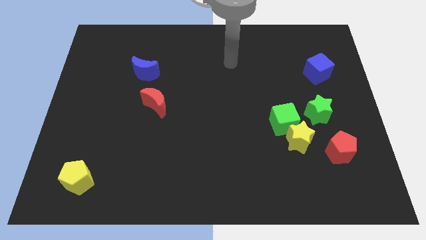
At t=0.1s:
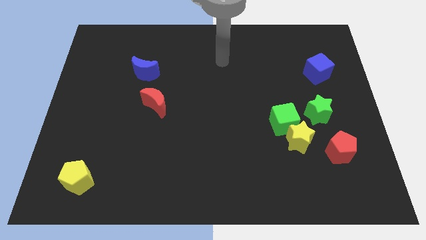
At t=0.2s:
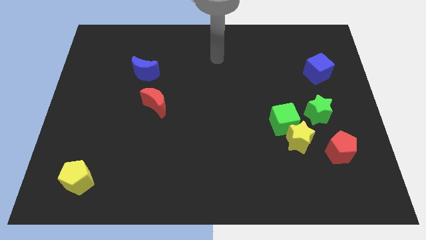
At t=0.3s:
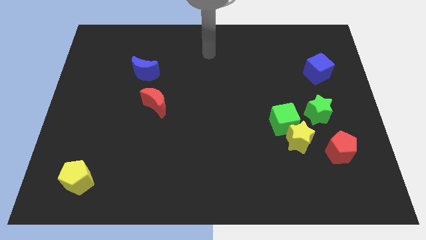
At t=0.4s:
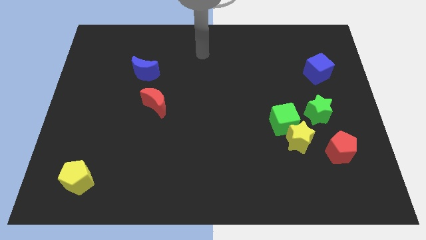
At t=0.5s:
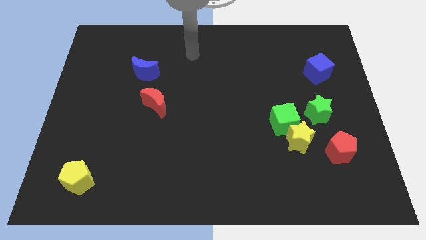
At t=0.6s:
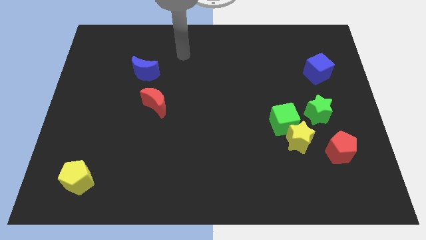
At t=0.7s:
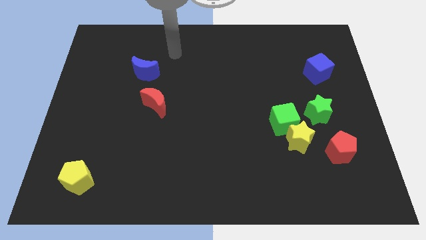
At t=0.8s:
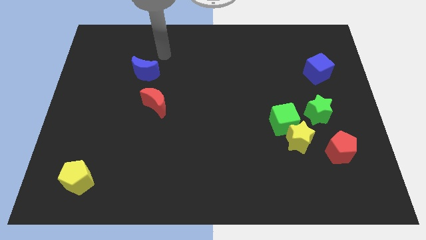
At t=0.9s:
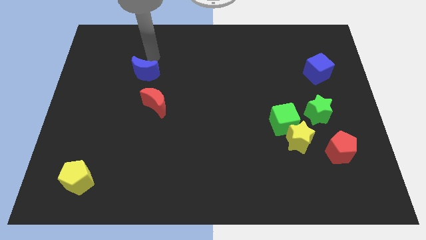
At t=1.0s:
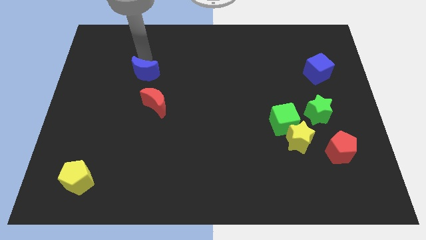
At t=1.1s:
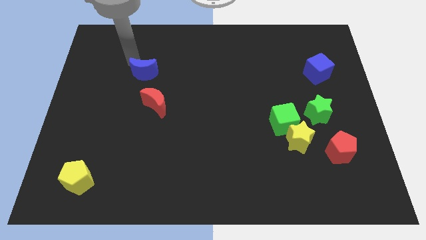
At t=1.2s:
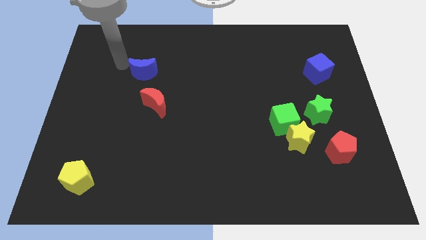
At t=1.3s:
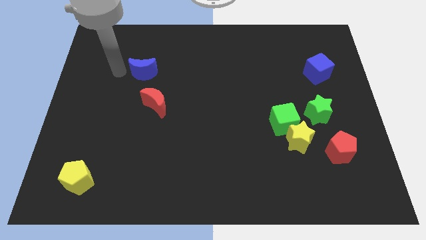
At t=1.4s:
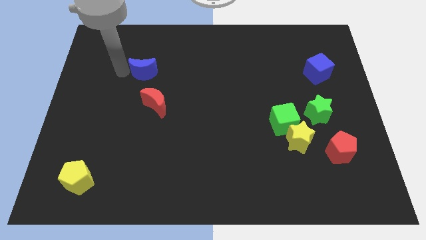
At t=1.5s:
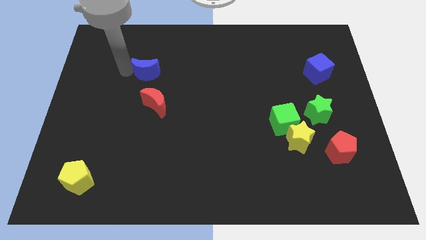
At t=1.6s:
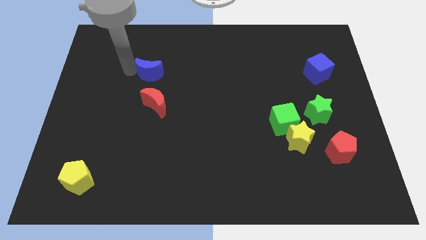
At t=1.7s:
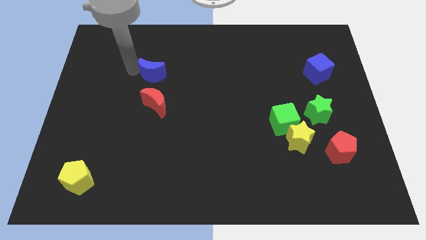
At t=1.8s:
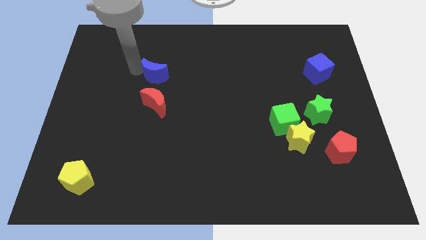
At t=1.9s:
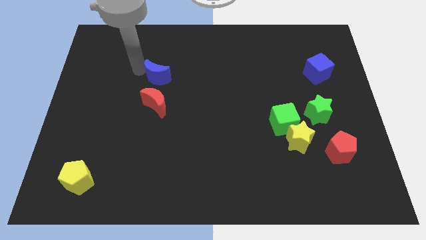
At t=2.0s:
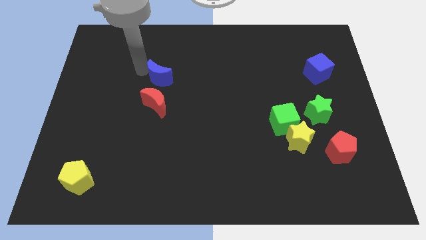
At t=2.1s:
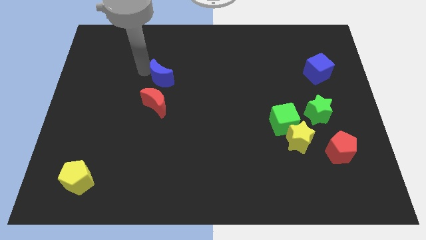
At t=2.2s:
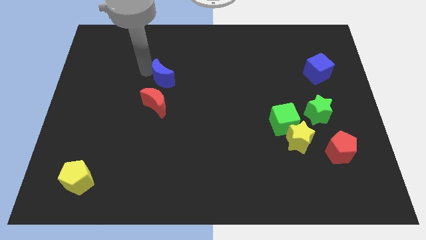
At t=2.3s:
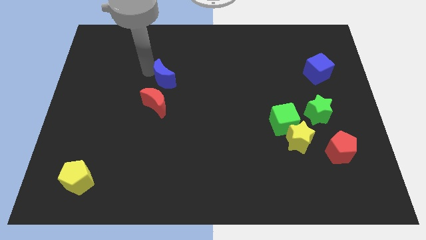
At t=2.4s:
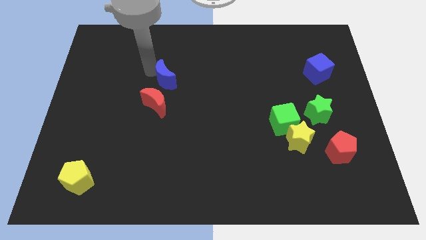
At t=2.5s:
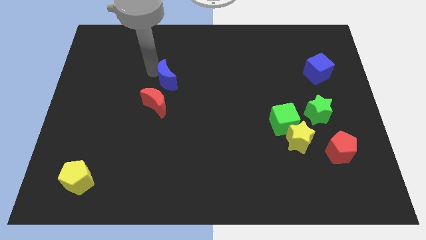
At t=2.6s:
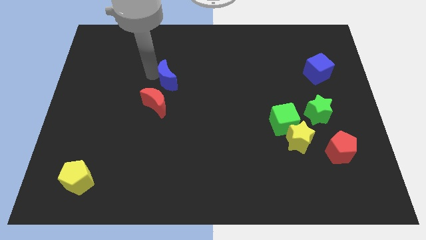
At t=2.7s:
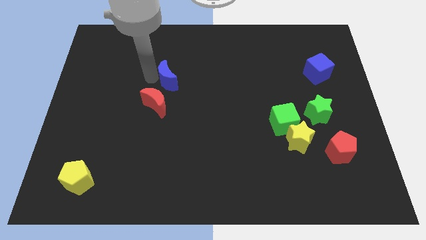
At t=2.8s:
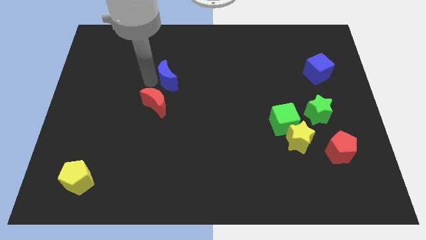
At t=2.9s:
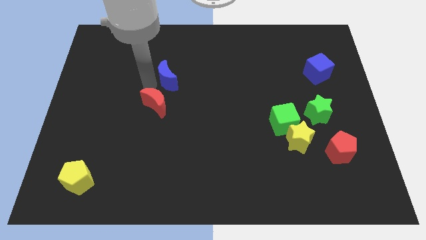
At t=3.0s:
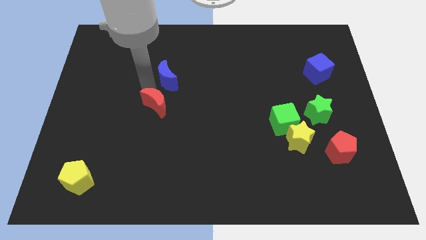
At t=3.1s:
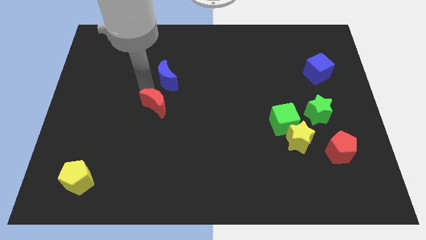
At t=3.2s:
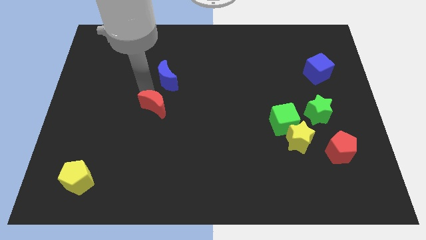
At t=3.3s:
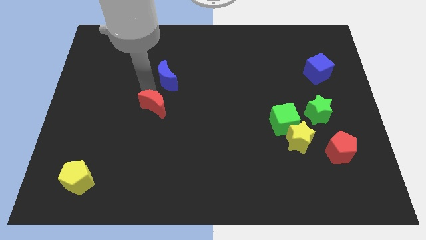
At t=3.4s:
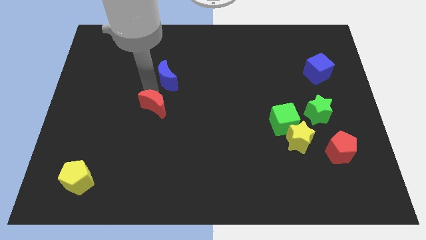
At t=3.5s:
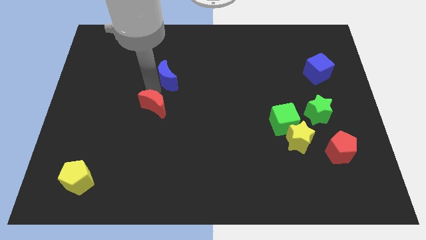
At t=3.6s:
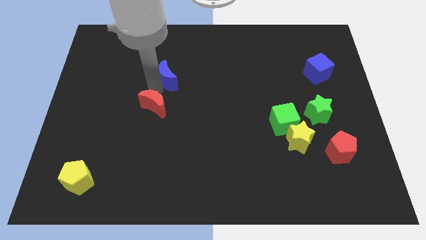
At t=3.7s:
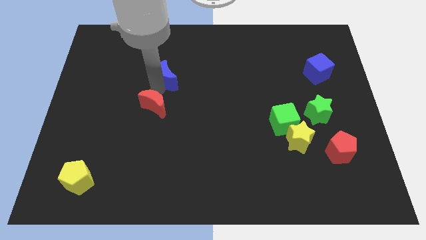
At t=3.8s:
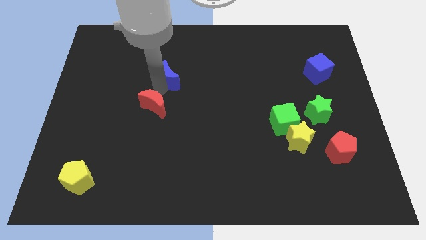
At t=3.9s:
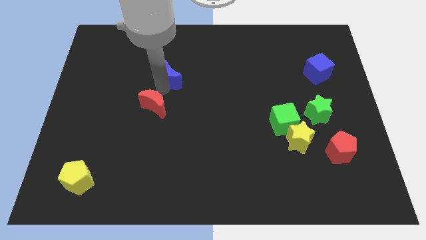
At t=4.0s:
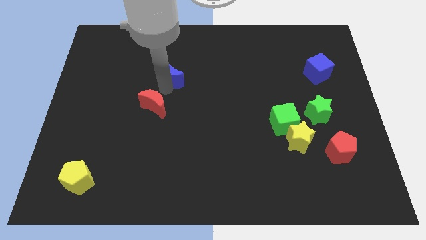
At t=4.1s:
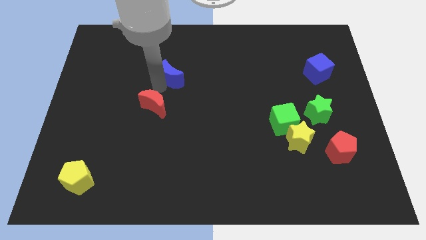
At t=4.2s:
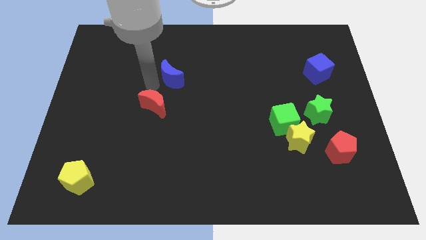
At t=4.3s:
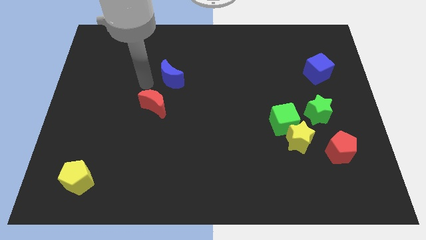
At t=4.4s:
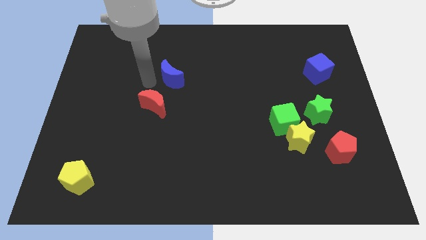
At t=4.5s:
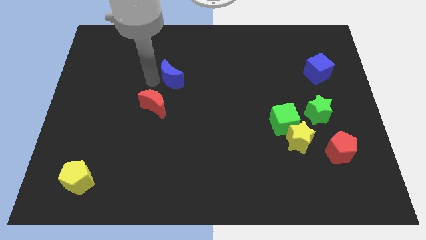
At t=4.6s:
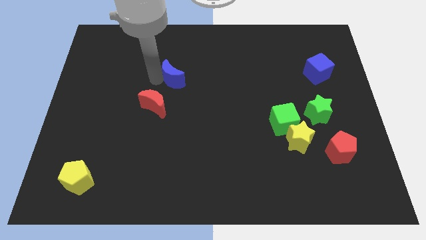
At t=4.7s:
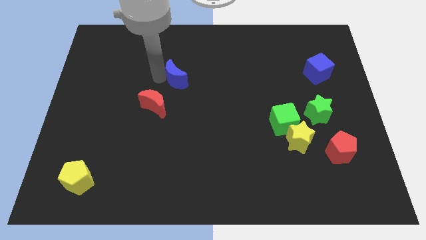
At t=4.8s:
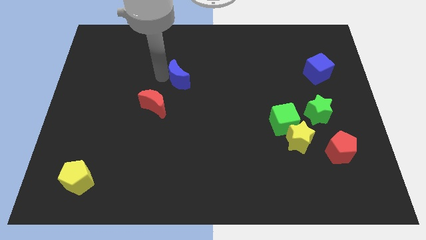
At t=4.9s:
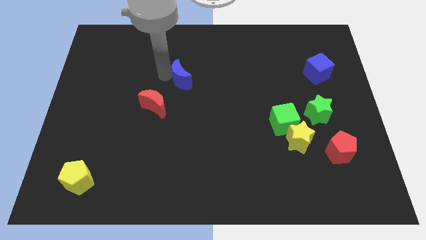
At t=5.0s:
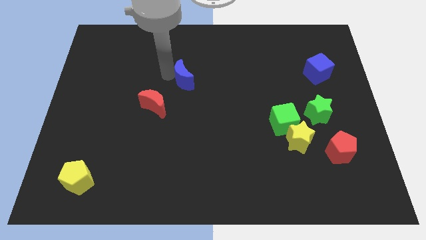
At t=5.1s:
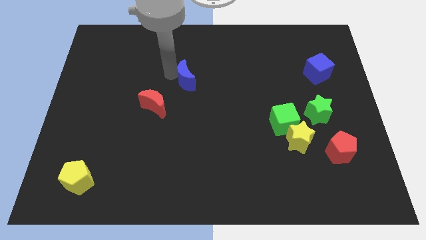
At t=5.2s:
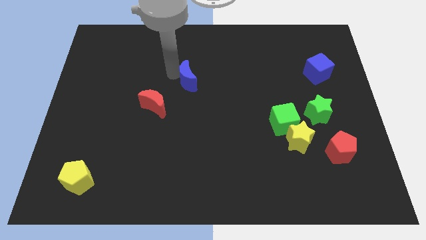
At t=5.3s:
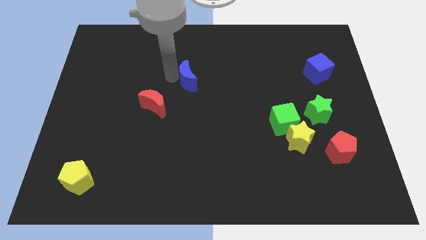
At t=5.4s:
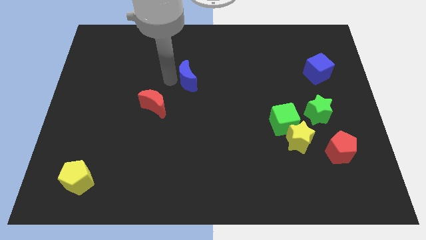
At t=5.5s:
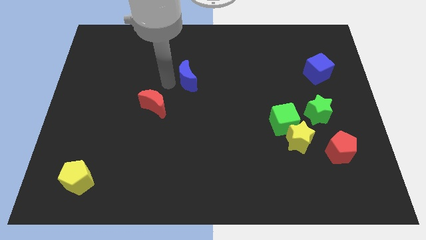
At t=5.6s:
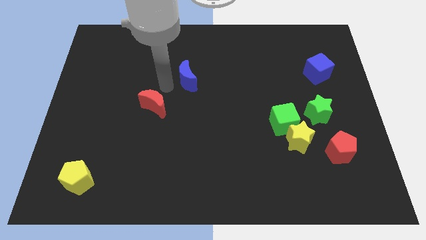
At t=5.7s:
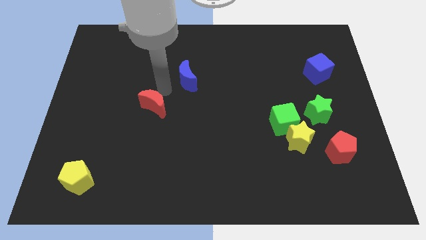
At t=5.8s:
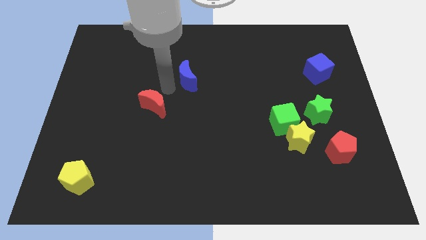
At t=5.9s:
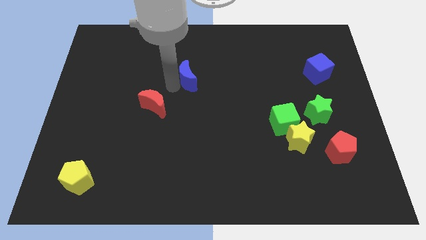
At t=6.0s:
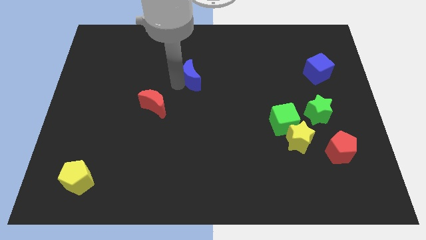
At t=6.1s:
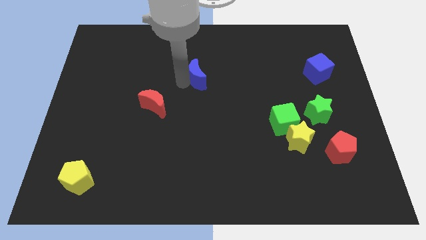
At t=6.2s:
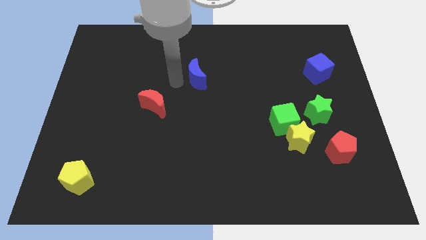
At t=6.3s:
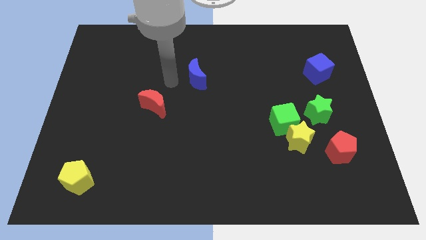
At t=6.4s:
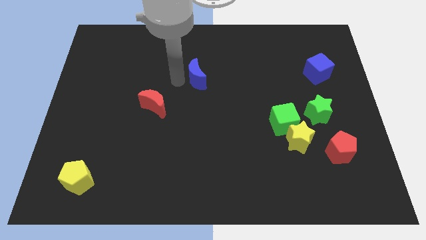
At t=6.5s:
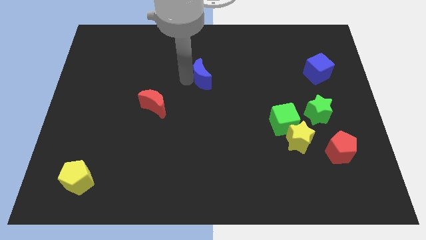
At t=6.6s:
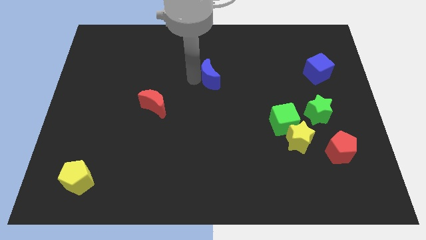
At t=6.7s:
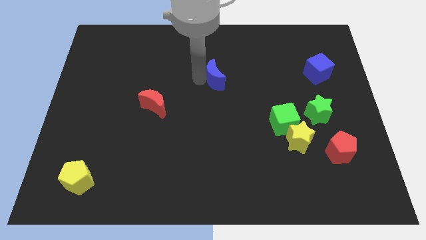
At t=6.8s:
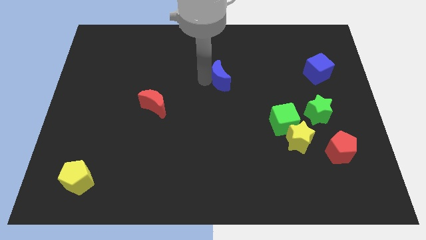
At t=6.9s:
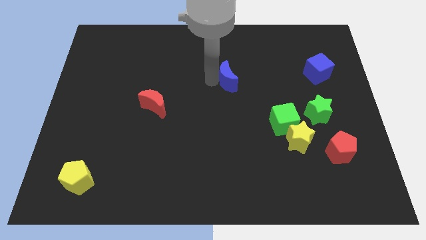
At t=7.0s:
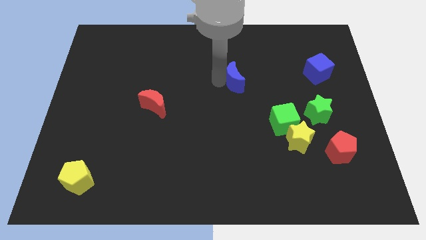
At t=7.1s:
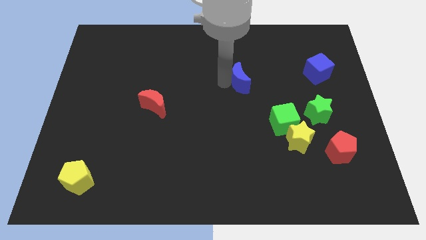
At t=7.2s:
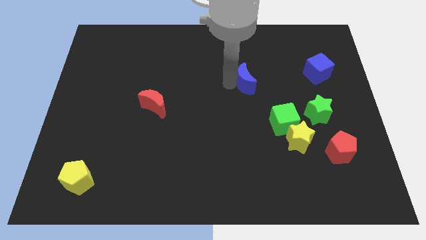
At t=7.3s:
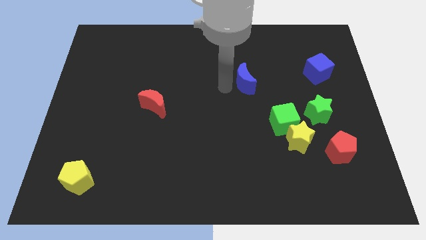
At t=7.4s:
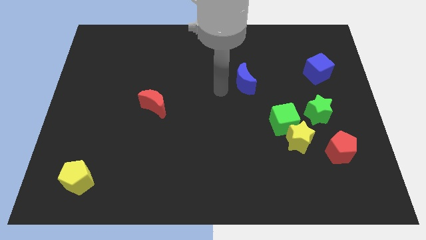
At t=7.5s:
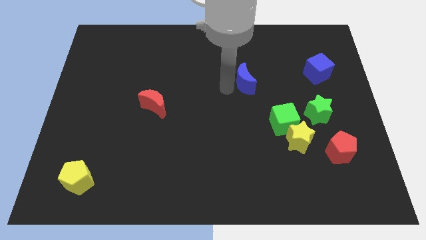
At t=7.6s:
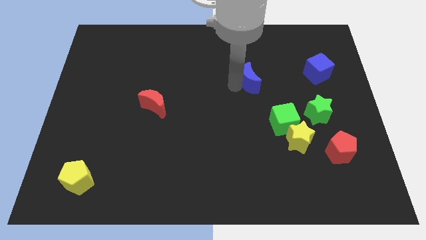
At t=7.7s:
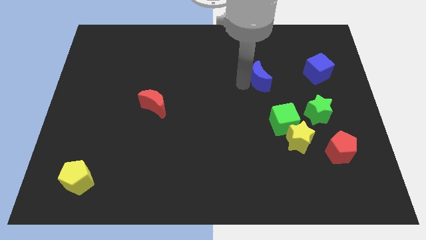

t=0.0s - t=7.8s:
push the blue moon just left of the blue cube
